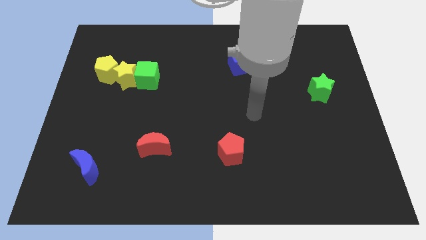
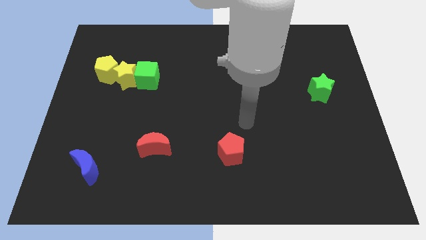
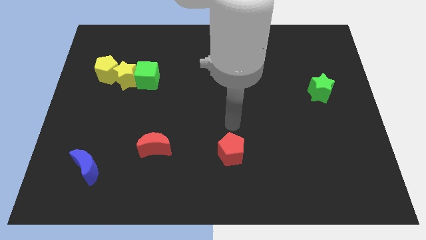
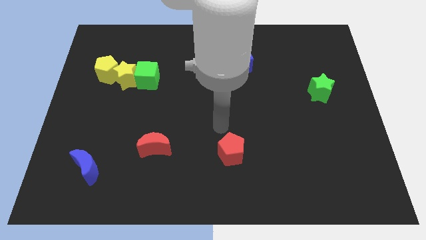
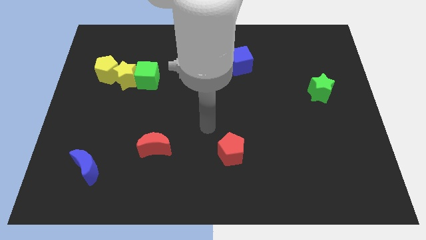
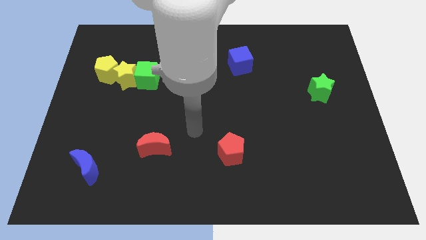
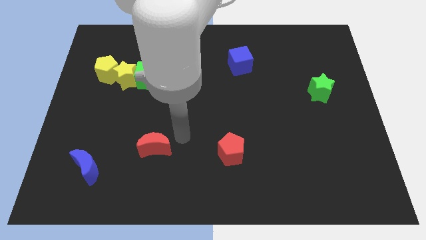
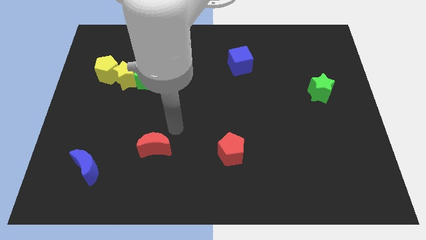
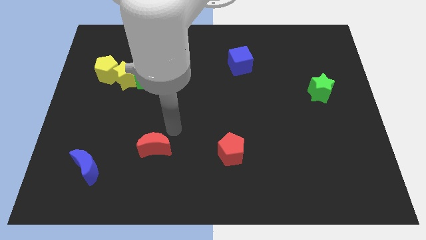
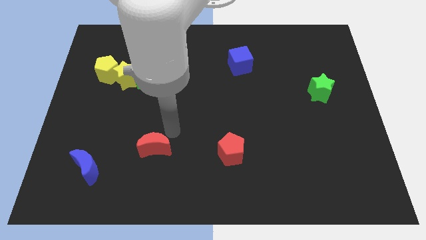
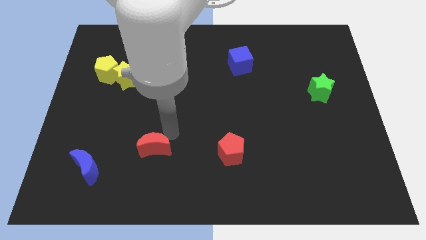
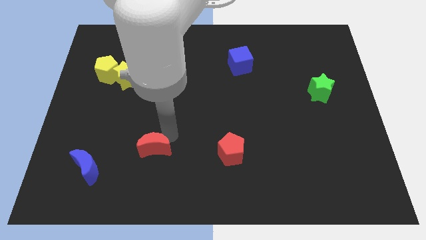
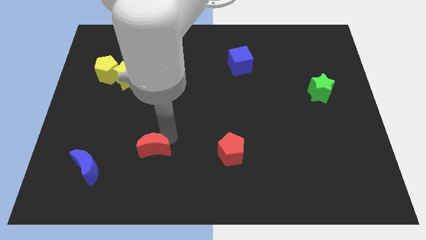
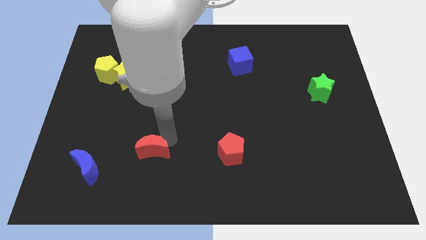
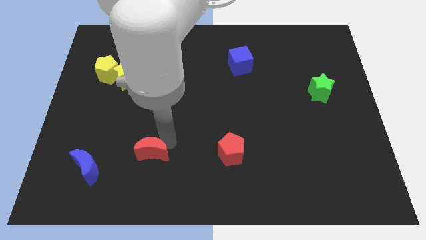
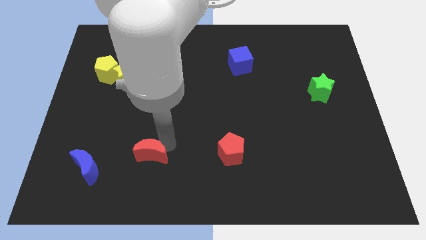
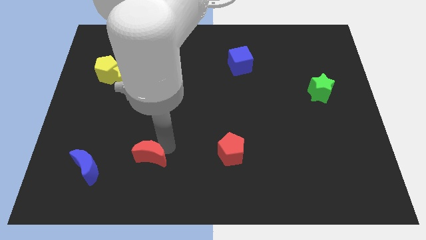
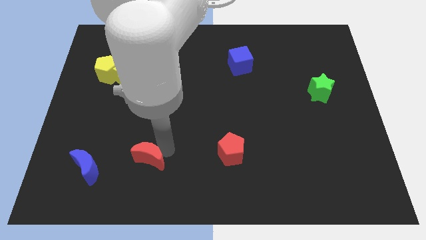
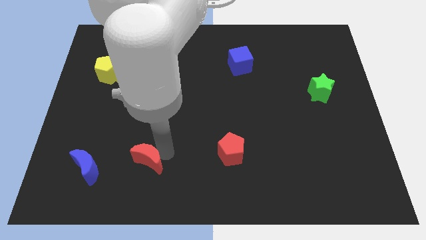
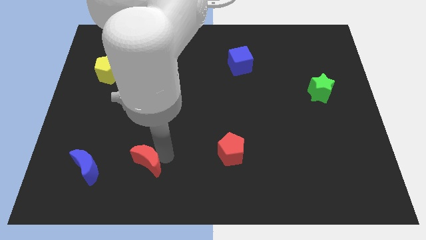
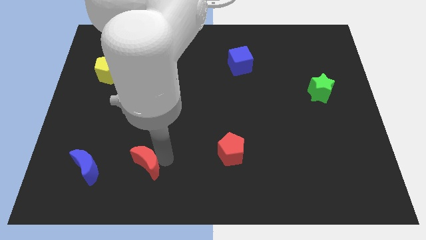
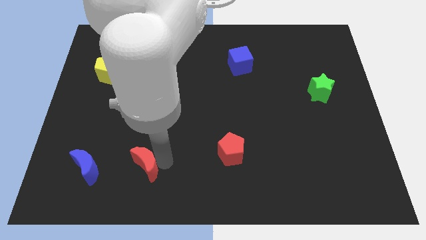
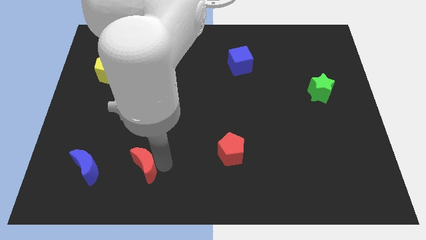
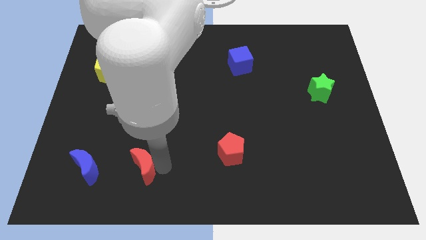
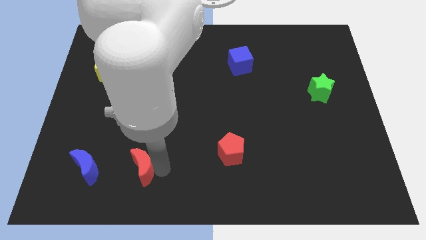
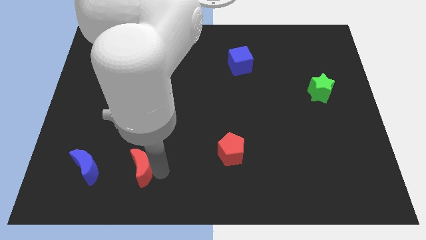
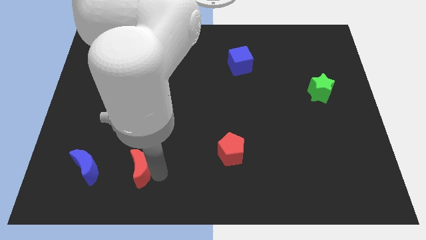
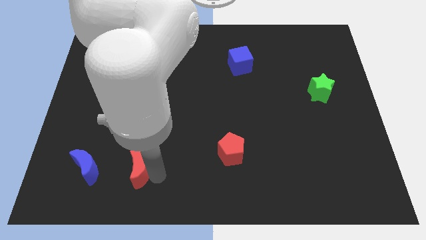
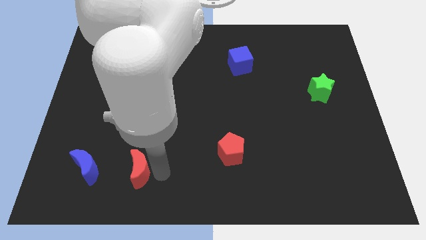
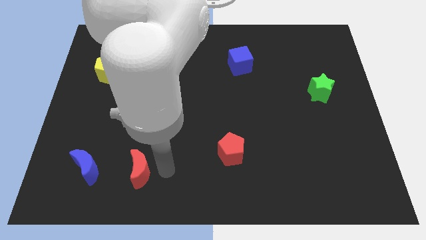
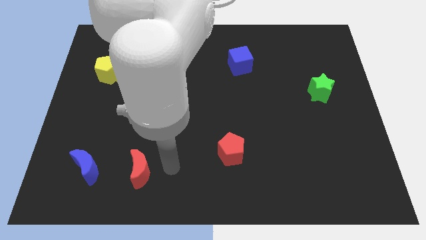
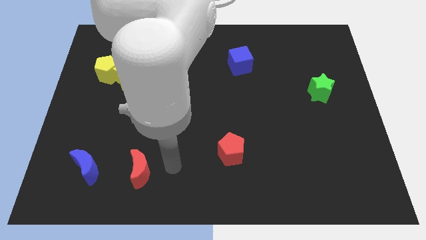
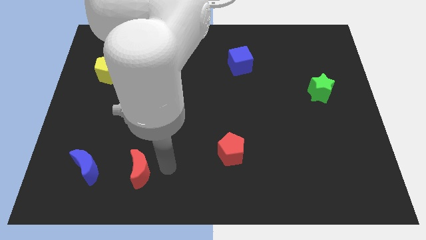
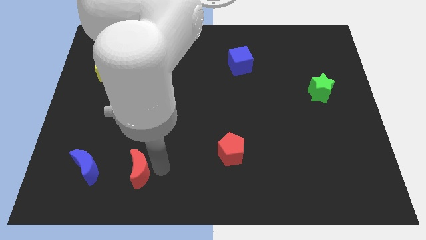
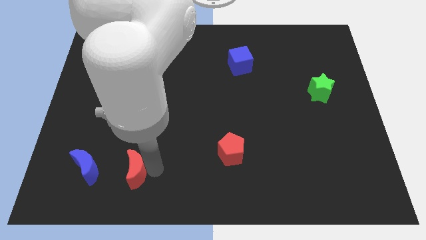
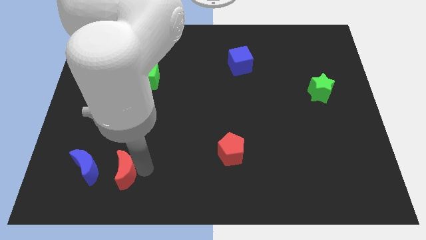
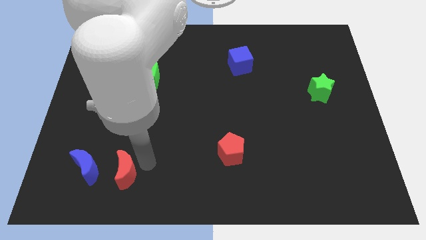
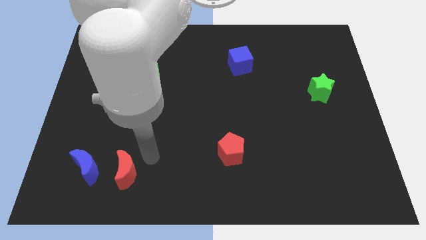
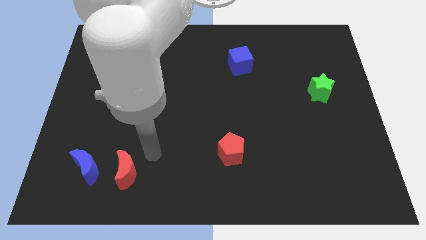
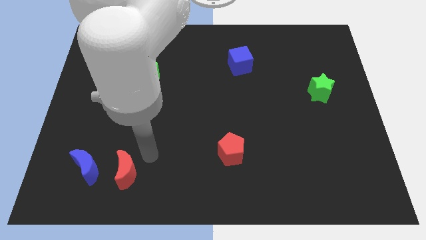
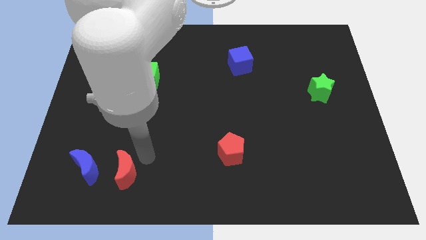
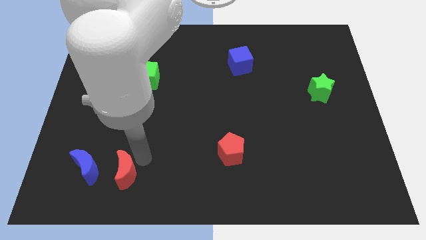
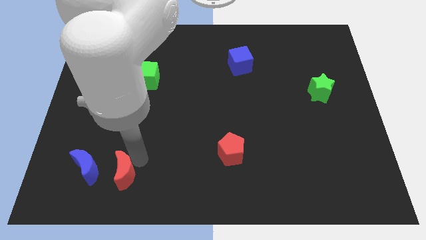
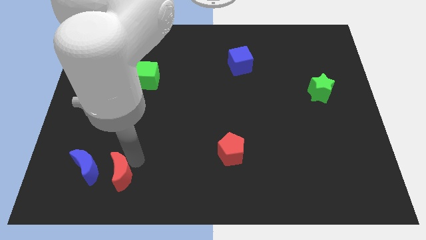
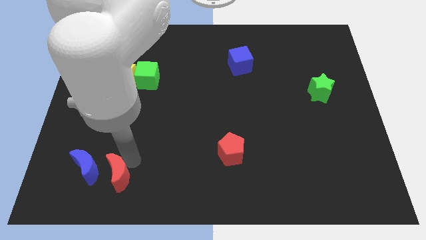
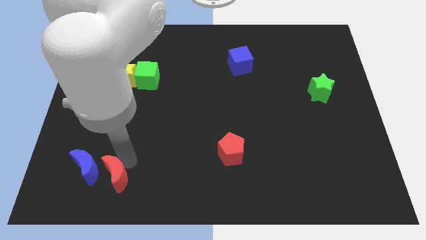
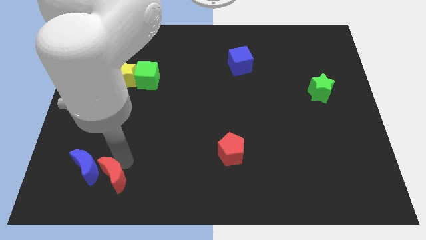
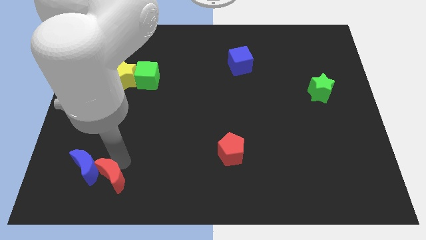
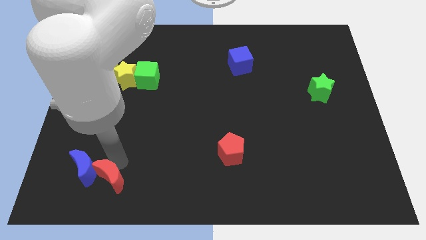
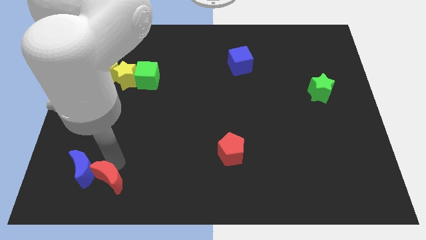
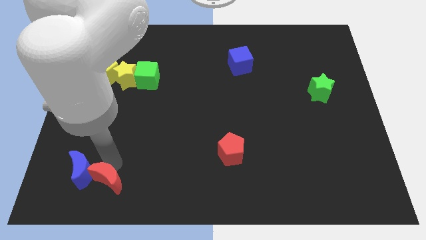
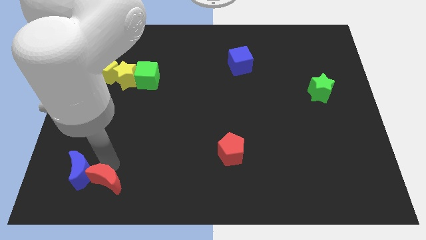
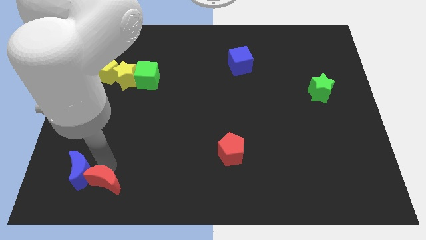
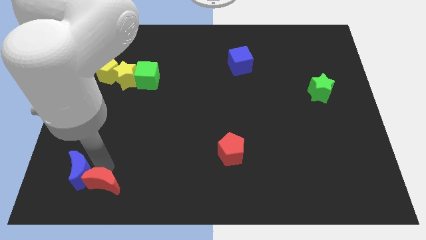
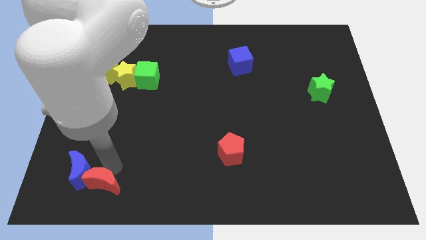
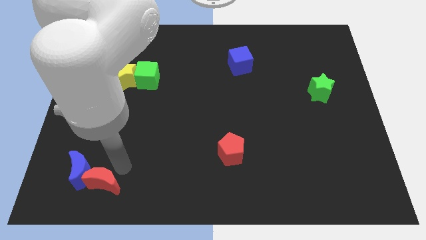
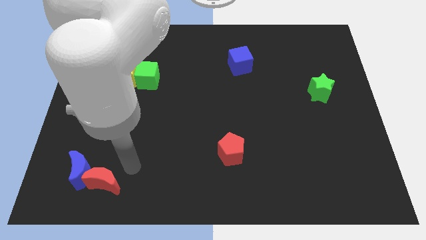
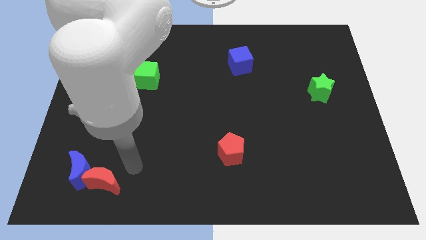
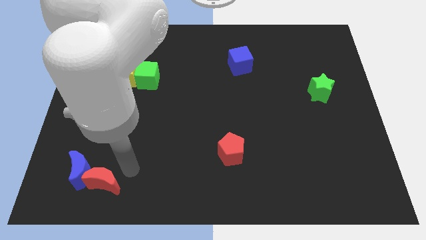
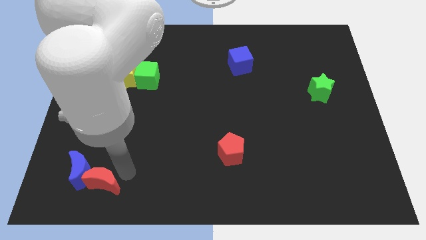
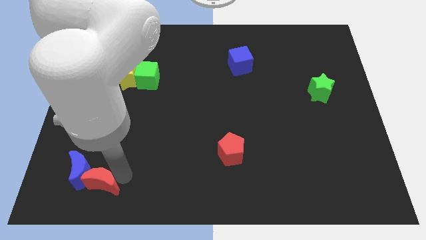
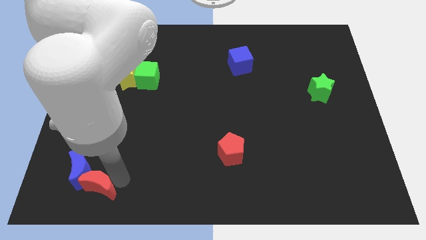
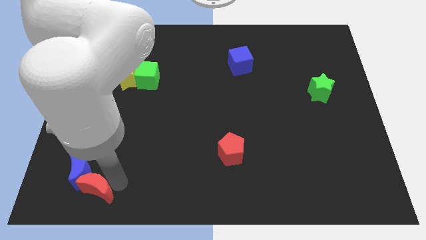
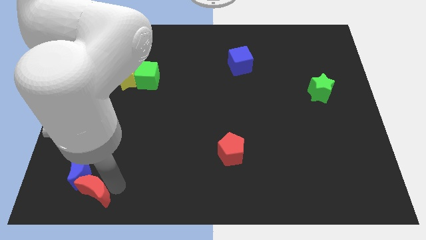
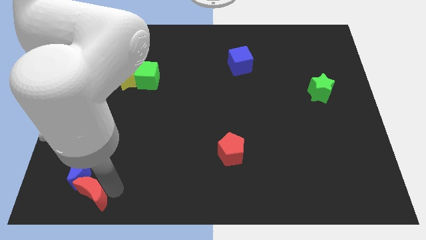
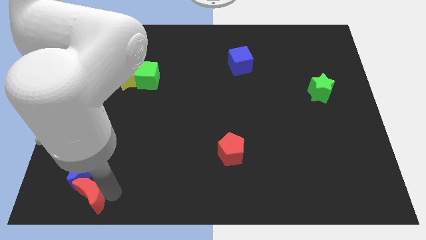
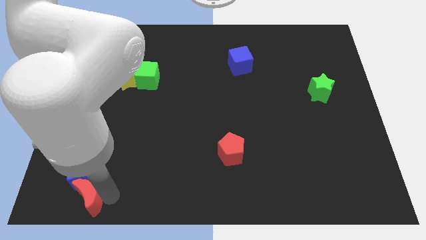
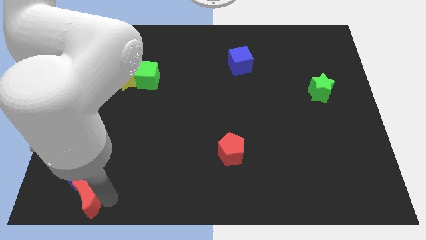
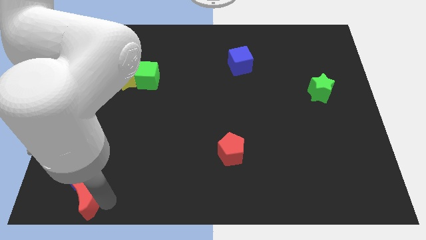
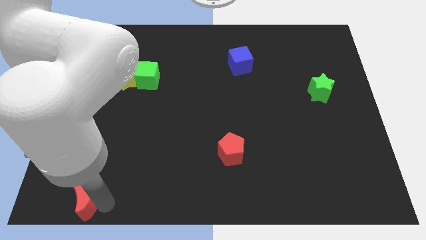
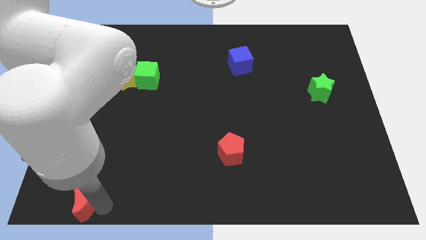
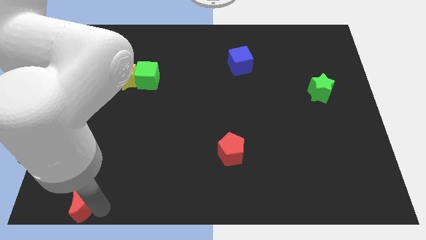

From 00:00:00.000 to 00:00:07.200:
move the red moon to the lower left corner
